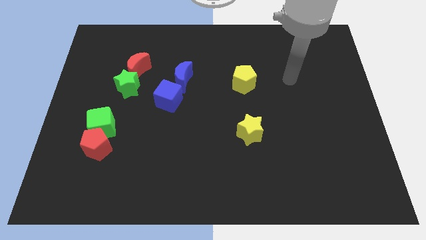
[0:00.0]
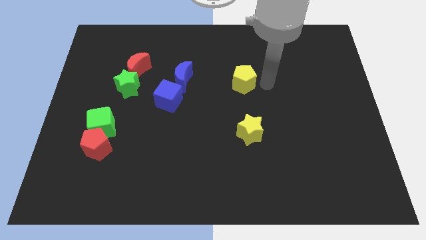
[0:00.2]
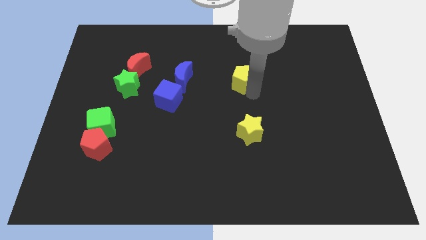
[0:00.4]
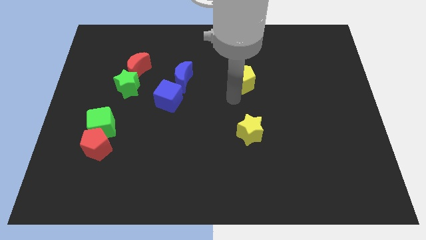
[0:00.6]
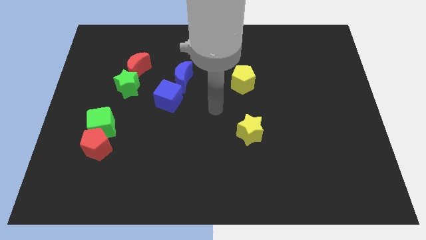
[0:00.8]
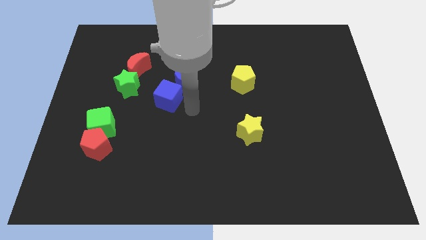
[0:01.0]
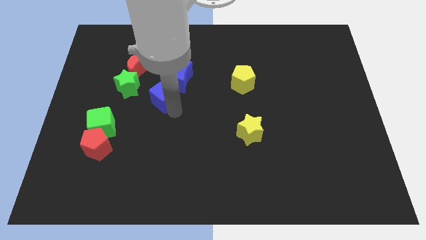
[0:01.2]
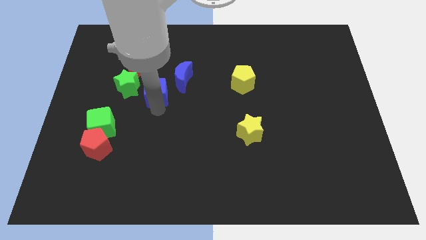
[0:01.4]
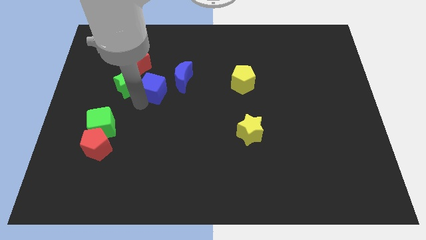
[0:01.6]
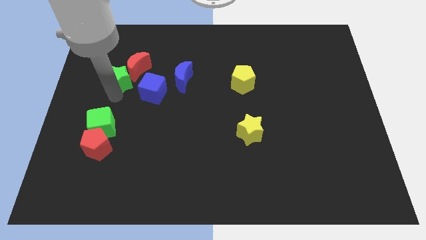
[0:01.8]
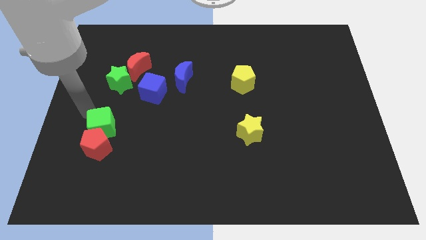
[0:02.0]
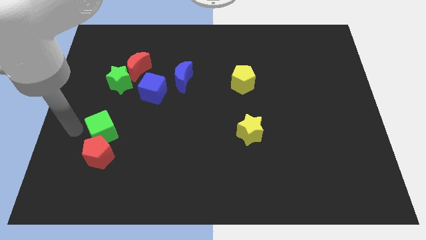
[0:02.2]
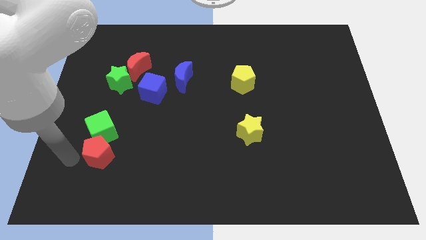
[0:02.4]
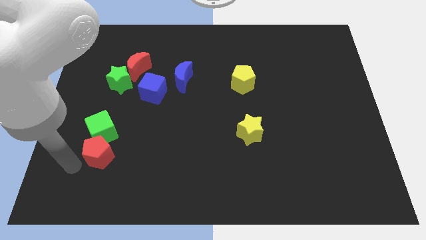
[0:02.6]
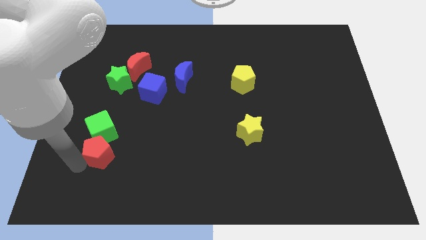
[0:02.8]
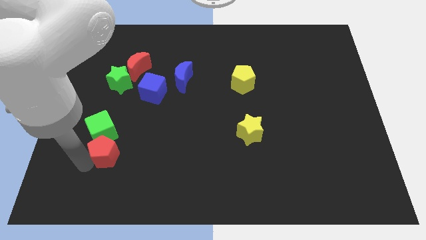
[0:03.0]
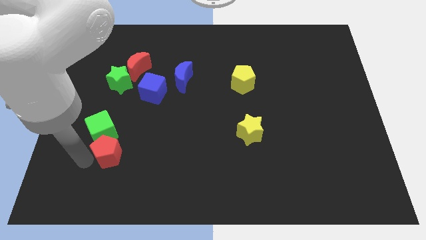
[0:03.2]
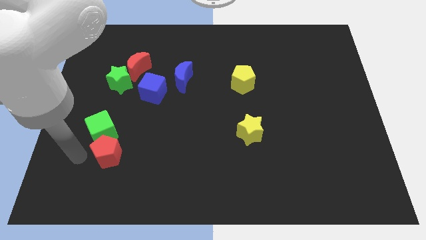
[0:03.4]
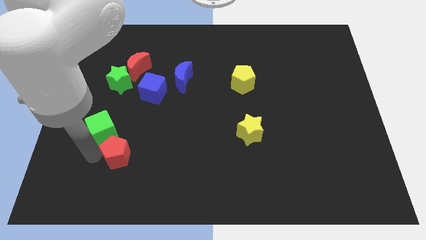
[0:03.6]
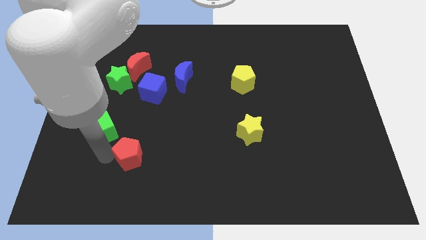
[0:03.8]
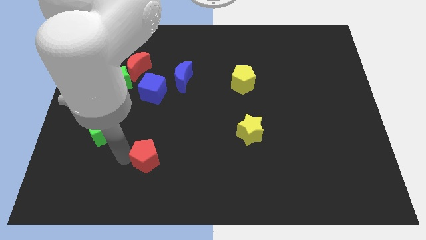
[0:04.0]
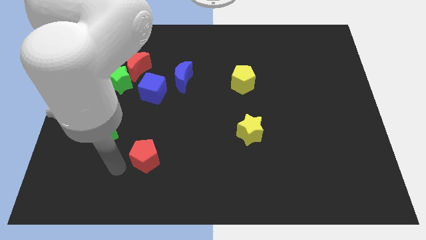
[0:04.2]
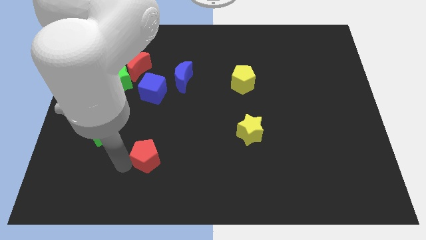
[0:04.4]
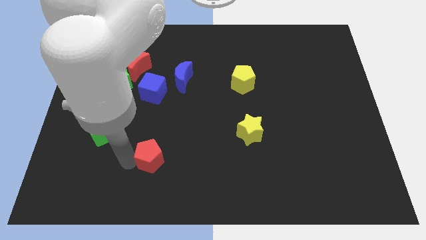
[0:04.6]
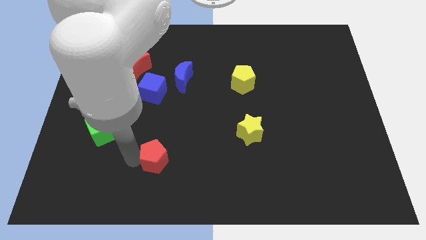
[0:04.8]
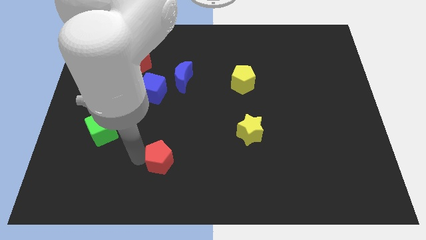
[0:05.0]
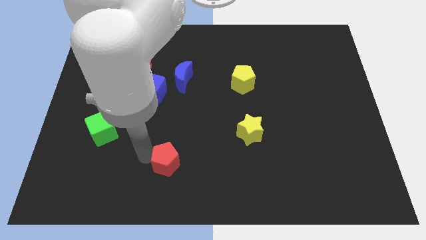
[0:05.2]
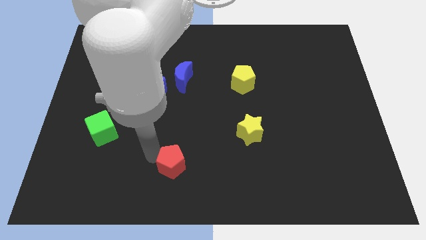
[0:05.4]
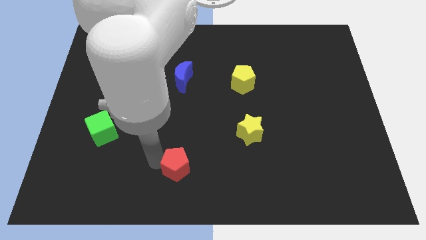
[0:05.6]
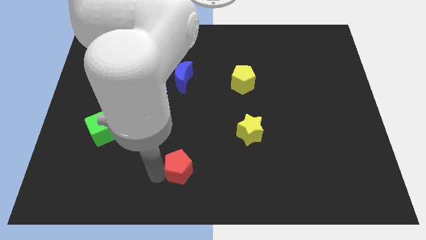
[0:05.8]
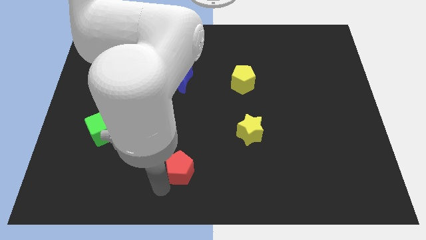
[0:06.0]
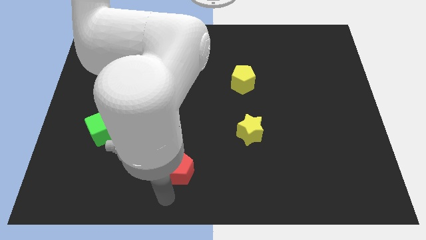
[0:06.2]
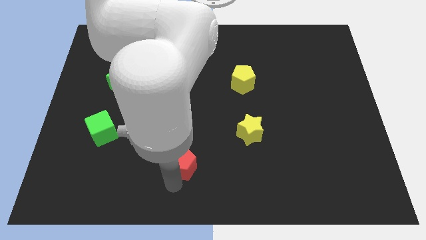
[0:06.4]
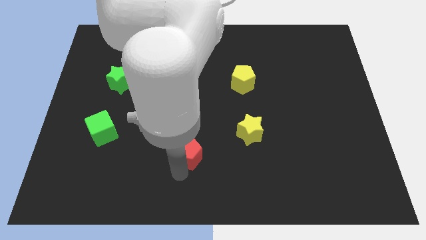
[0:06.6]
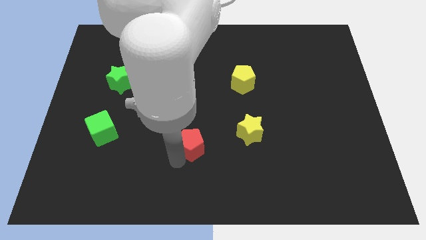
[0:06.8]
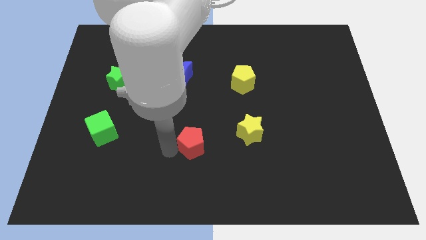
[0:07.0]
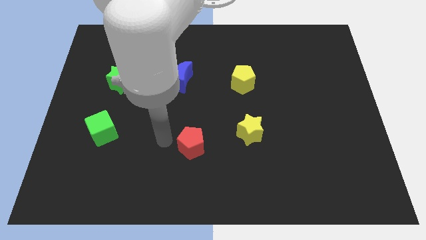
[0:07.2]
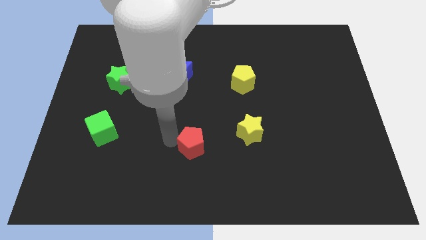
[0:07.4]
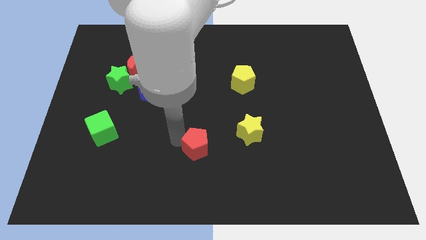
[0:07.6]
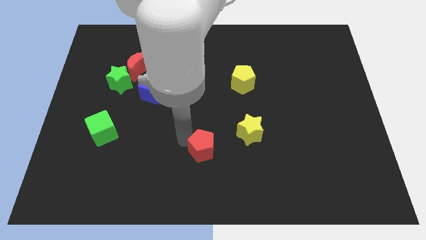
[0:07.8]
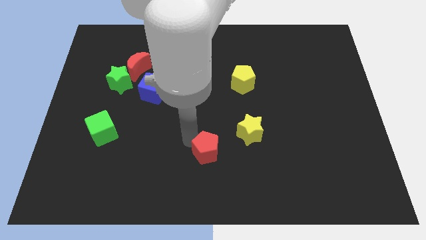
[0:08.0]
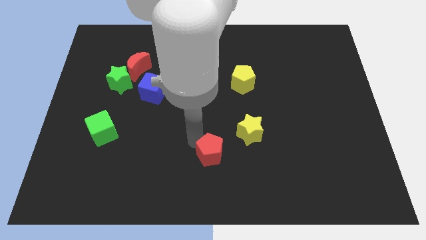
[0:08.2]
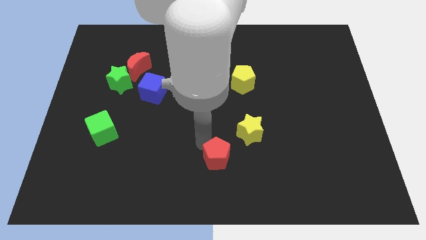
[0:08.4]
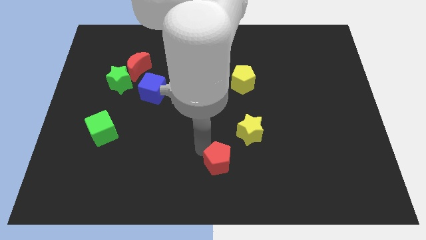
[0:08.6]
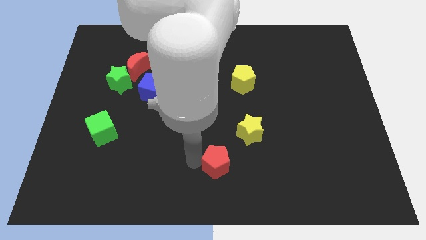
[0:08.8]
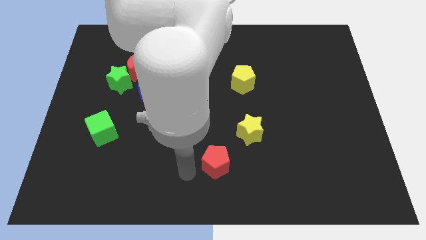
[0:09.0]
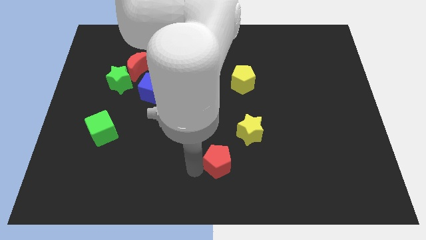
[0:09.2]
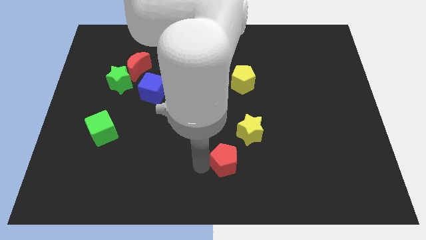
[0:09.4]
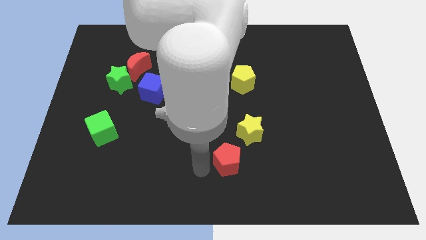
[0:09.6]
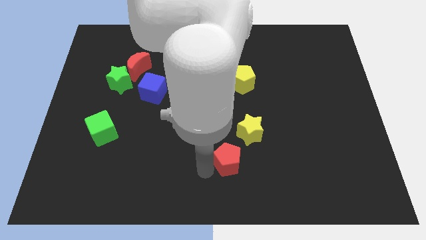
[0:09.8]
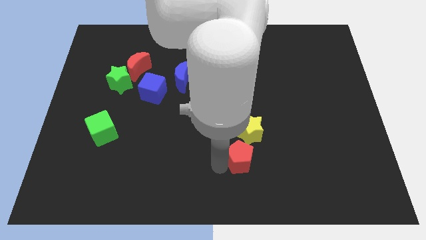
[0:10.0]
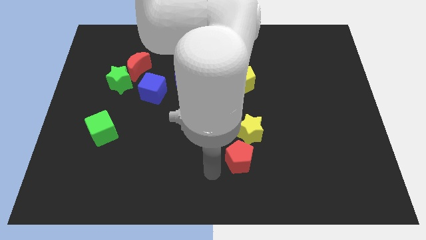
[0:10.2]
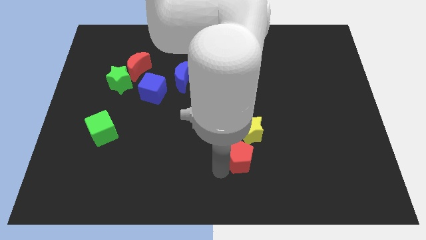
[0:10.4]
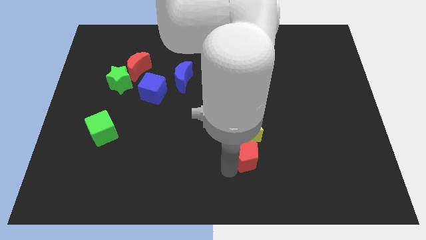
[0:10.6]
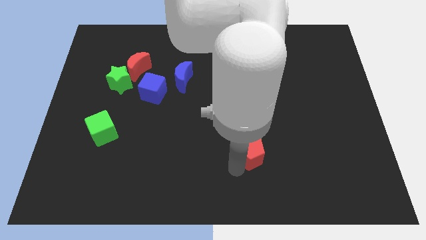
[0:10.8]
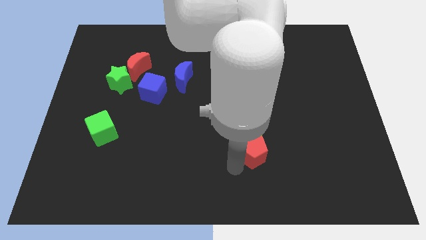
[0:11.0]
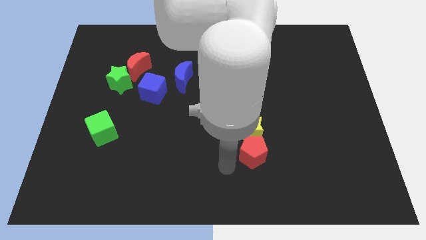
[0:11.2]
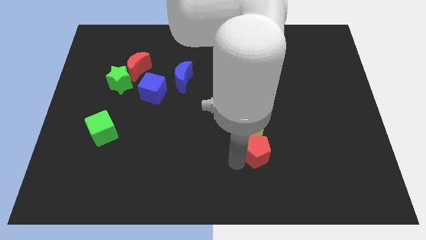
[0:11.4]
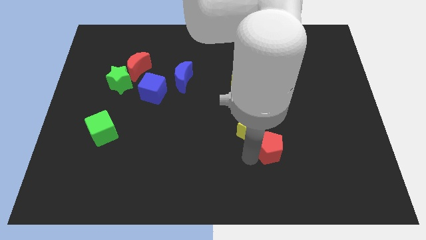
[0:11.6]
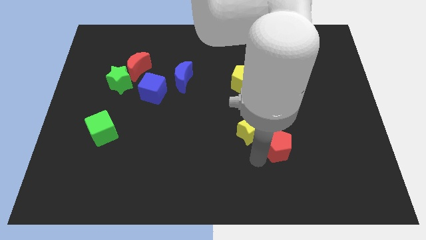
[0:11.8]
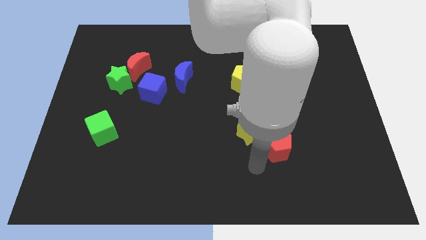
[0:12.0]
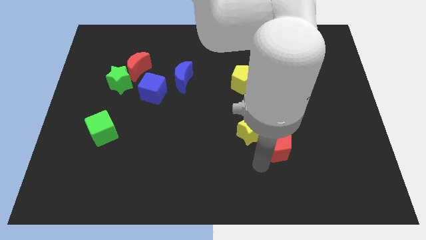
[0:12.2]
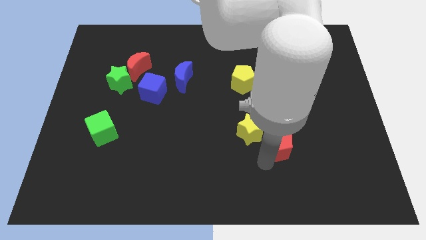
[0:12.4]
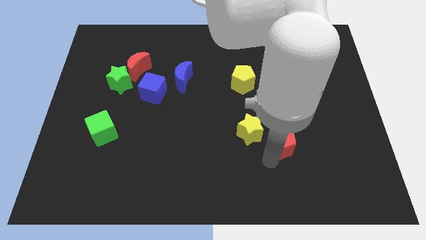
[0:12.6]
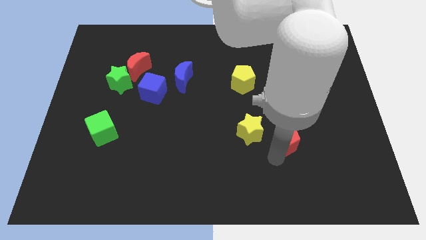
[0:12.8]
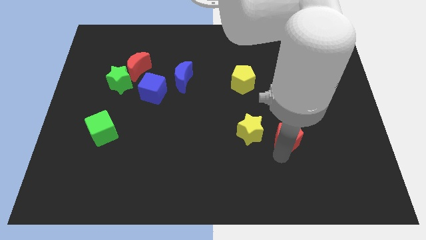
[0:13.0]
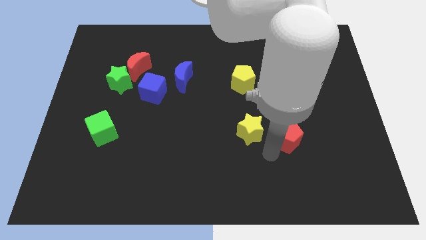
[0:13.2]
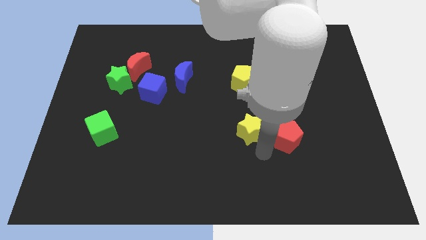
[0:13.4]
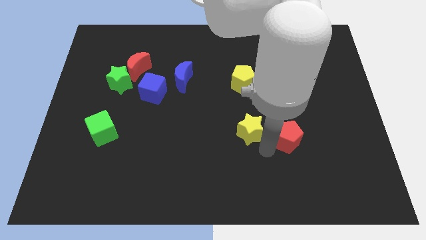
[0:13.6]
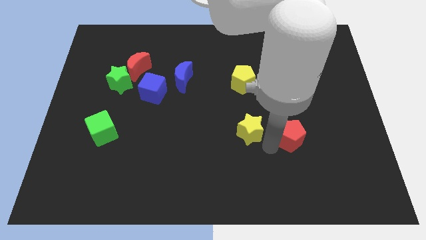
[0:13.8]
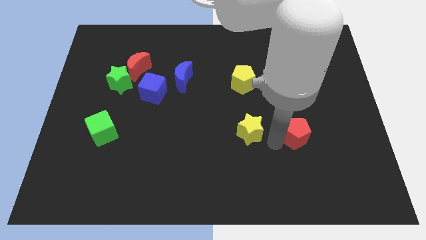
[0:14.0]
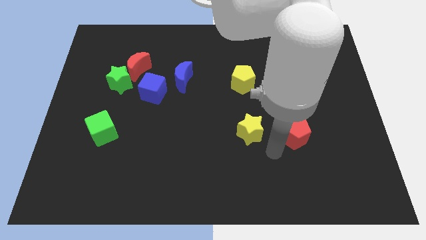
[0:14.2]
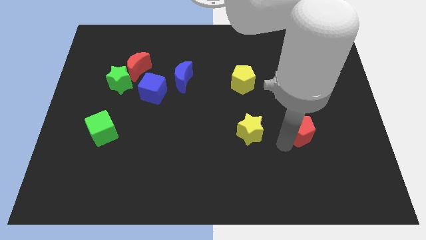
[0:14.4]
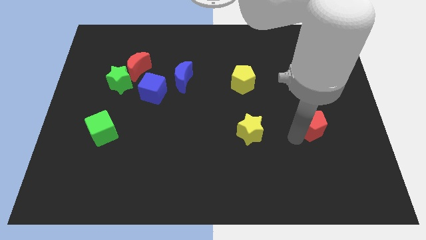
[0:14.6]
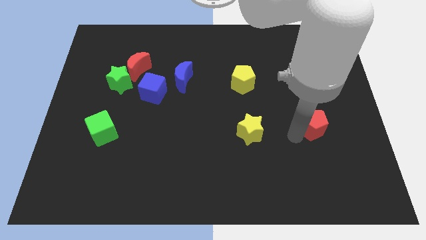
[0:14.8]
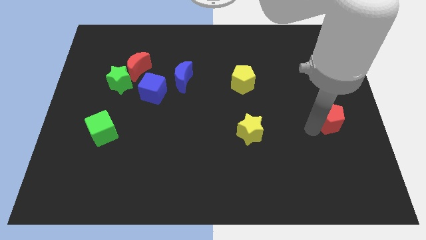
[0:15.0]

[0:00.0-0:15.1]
move the red pentagon to the right side

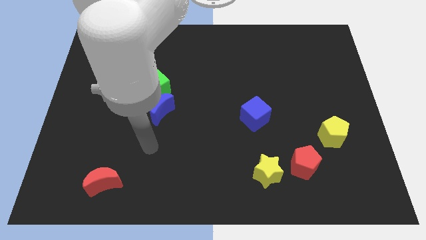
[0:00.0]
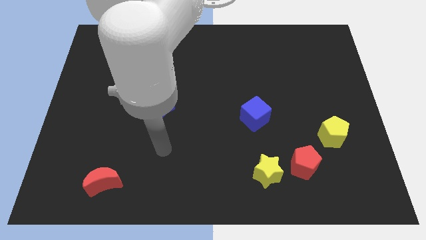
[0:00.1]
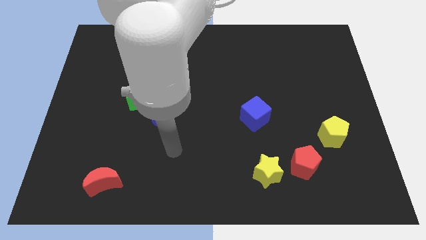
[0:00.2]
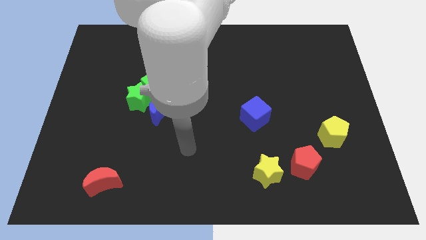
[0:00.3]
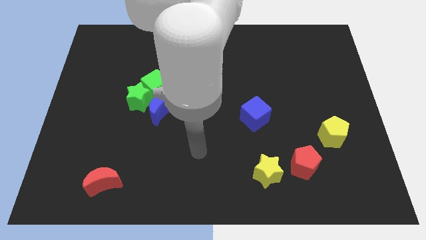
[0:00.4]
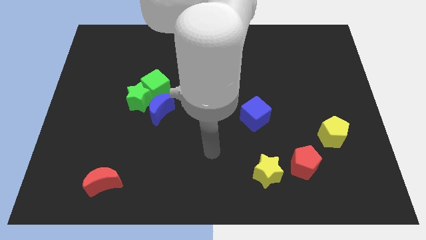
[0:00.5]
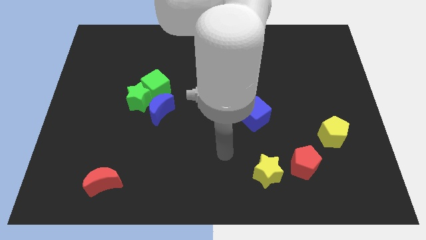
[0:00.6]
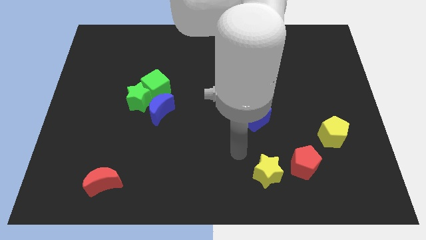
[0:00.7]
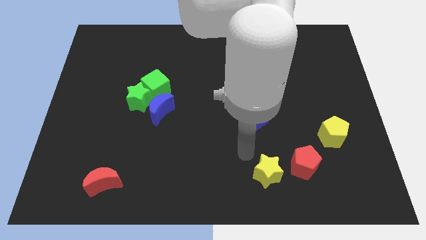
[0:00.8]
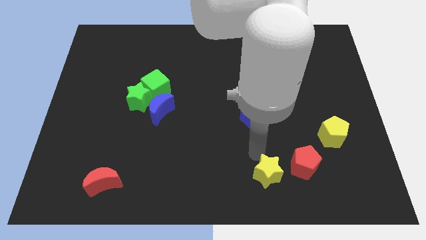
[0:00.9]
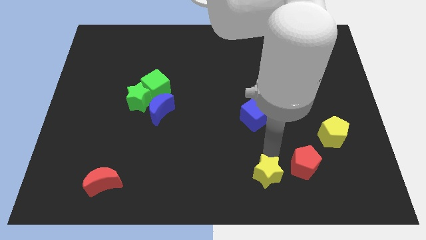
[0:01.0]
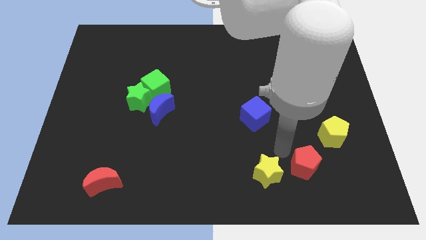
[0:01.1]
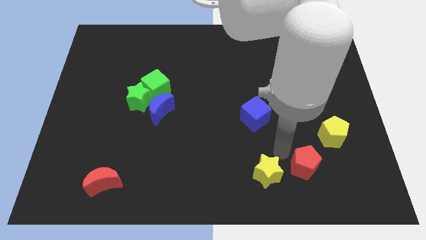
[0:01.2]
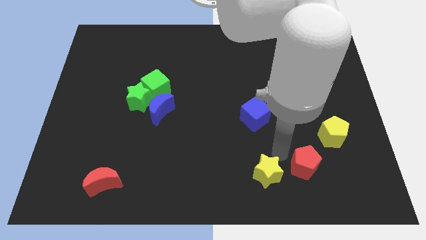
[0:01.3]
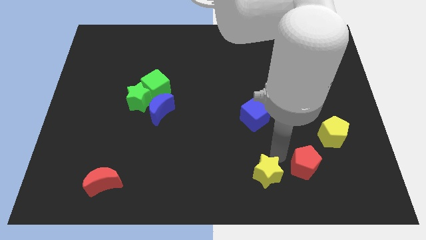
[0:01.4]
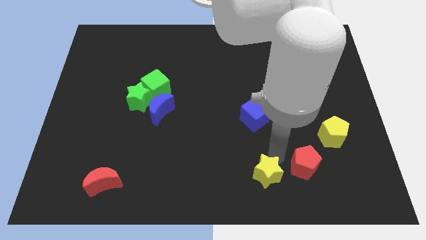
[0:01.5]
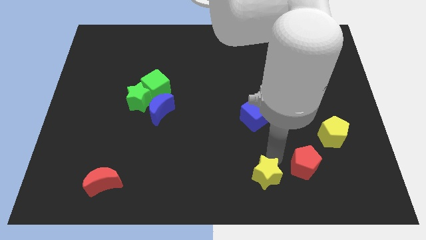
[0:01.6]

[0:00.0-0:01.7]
push the yellow star to the bottom side
